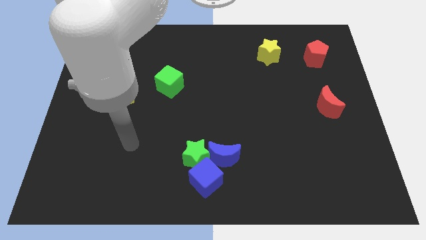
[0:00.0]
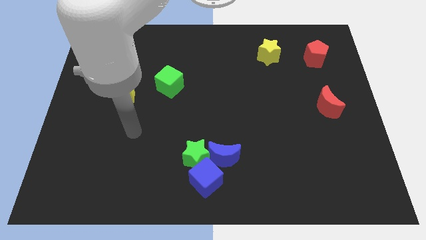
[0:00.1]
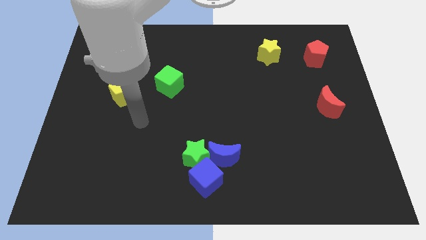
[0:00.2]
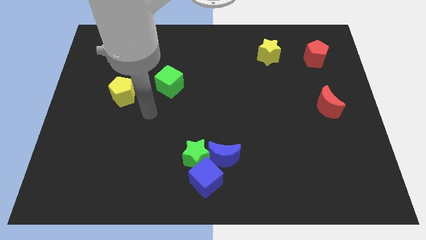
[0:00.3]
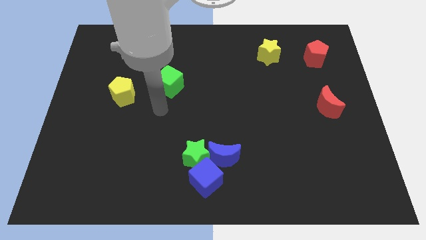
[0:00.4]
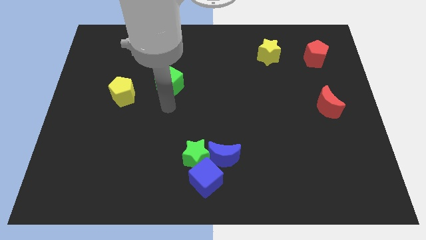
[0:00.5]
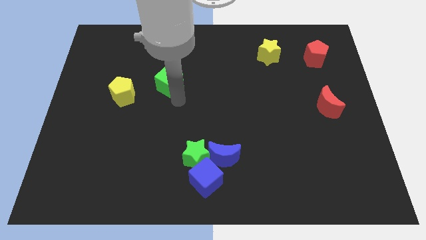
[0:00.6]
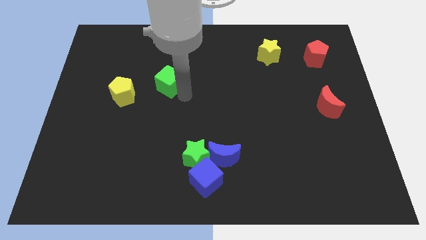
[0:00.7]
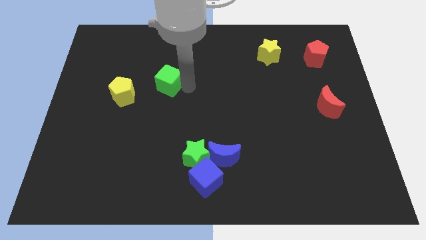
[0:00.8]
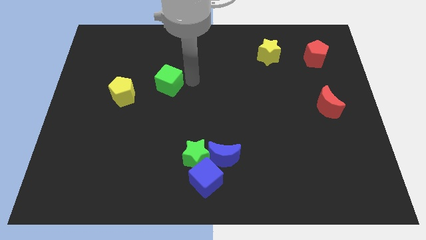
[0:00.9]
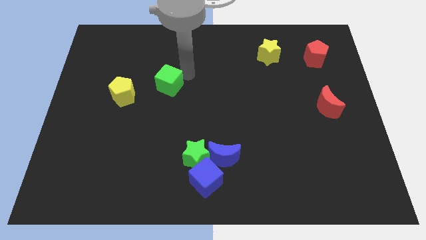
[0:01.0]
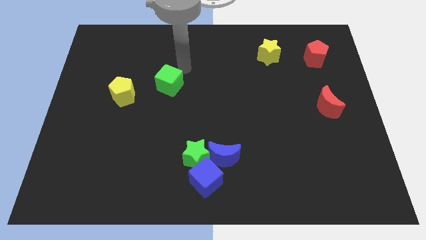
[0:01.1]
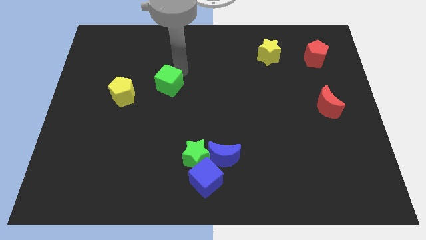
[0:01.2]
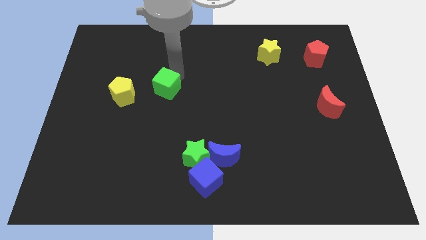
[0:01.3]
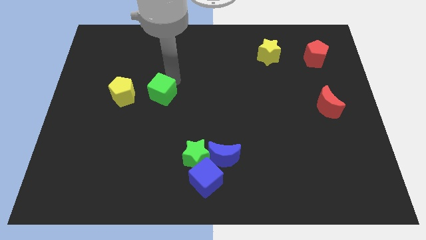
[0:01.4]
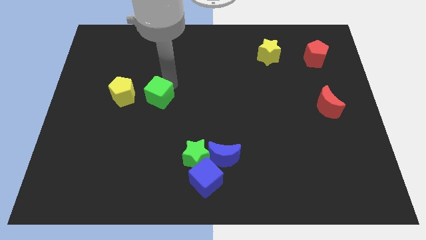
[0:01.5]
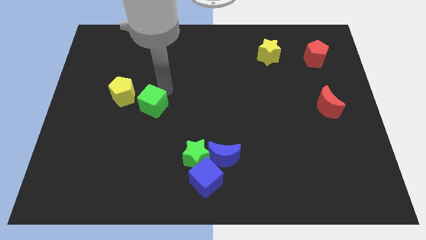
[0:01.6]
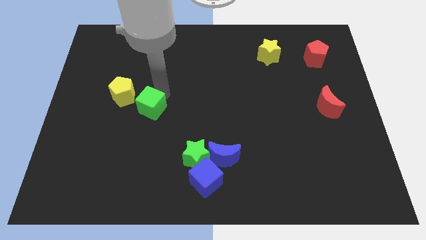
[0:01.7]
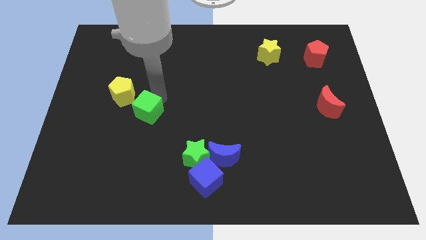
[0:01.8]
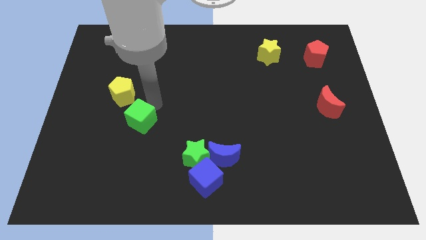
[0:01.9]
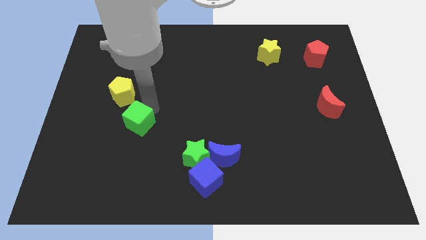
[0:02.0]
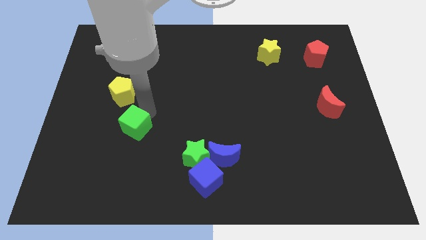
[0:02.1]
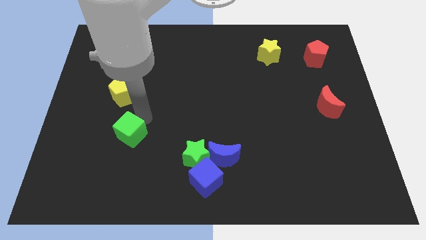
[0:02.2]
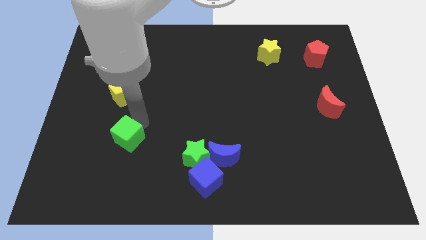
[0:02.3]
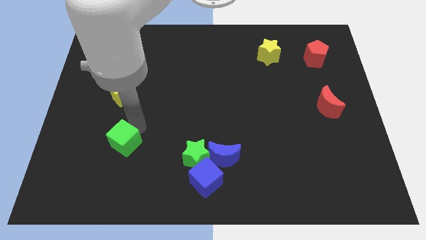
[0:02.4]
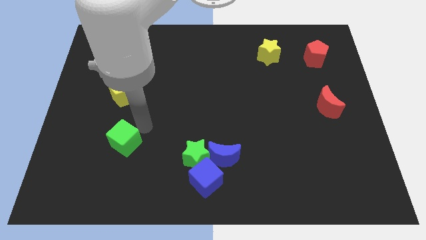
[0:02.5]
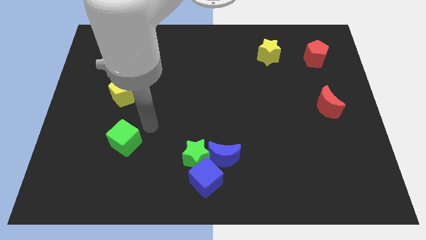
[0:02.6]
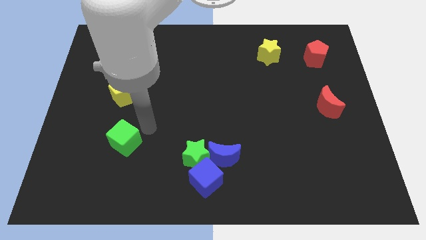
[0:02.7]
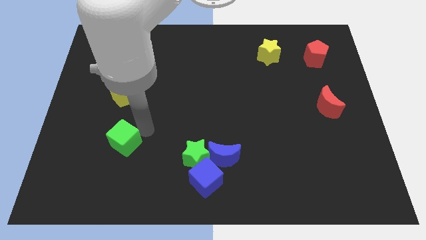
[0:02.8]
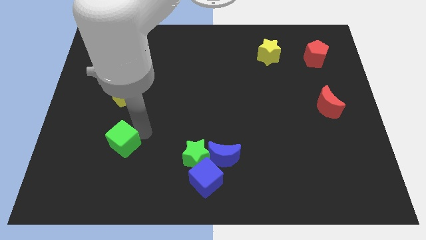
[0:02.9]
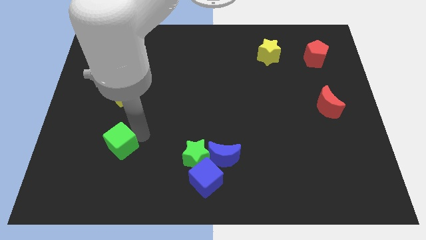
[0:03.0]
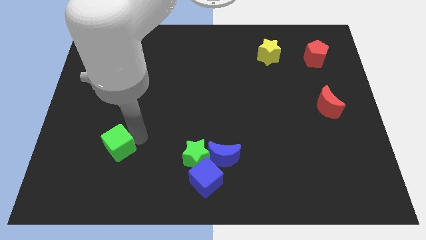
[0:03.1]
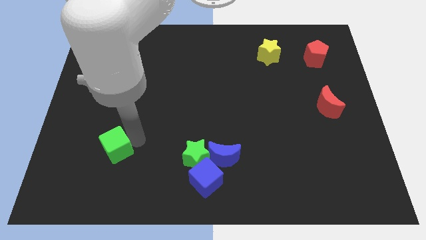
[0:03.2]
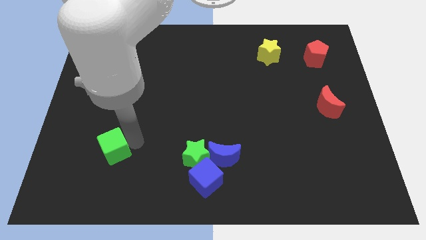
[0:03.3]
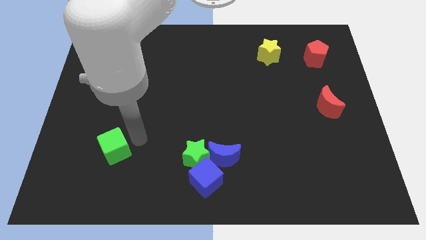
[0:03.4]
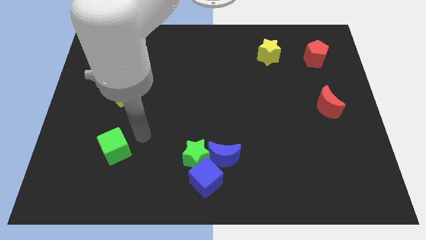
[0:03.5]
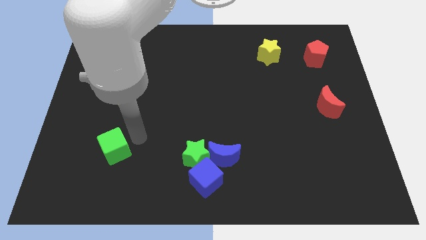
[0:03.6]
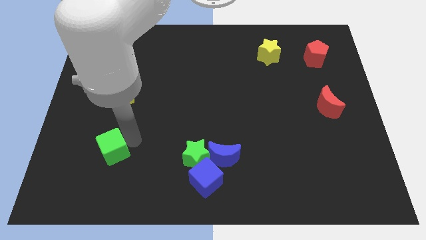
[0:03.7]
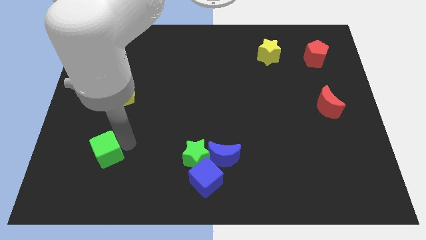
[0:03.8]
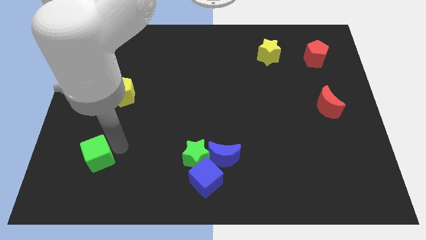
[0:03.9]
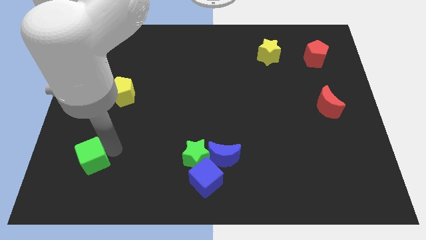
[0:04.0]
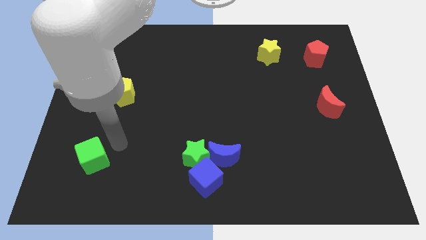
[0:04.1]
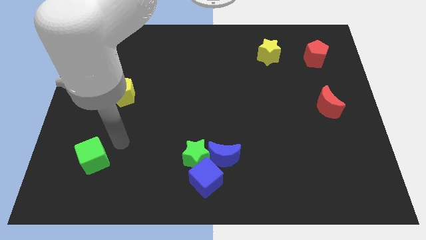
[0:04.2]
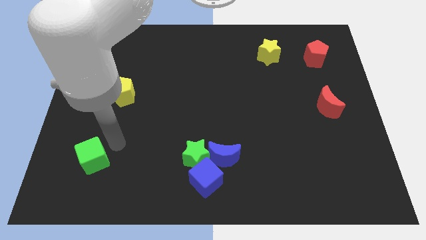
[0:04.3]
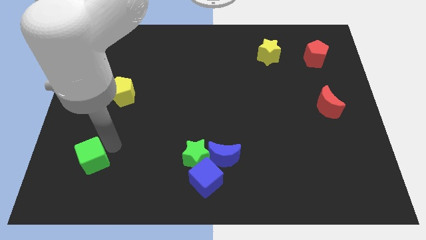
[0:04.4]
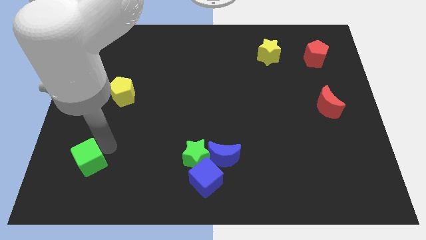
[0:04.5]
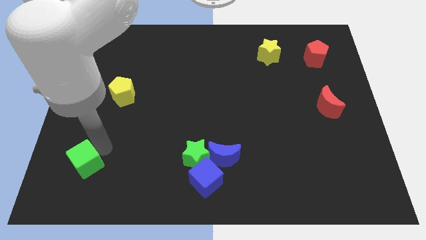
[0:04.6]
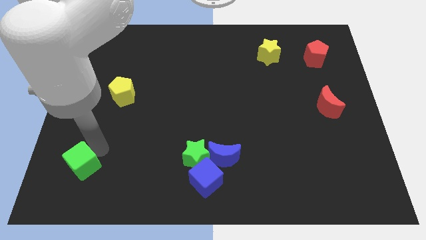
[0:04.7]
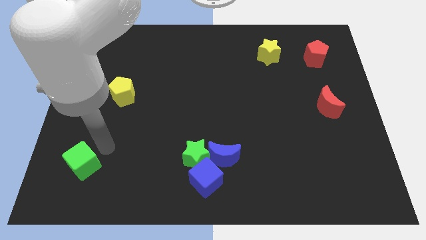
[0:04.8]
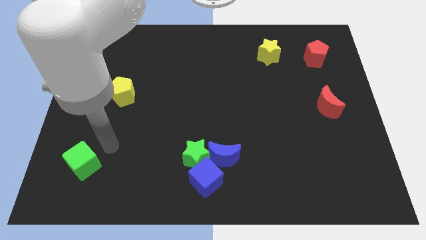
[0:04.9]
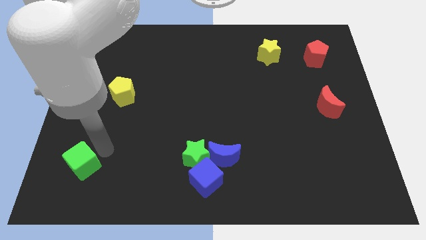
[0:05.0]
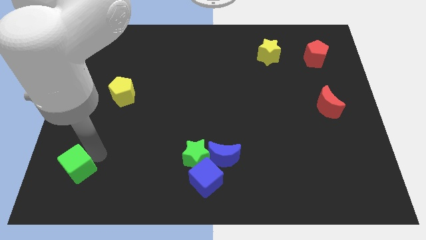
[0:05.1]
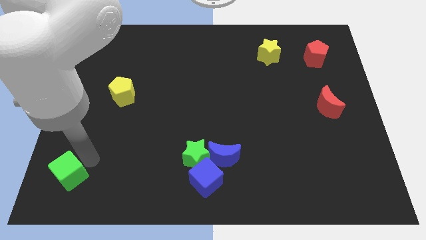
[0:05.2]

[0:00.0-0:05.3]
move the green cube to the bottom left corner

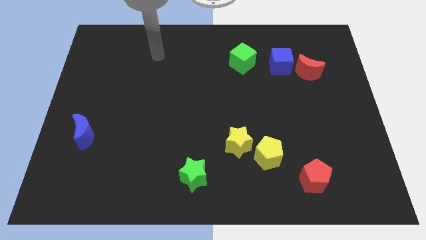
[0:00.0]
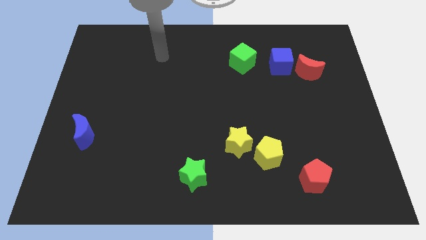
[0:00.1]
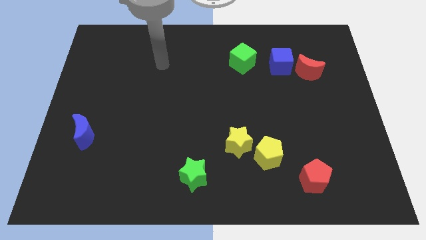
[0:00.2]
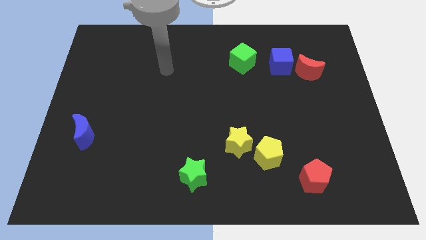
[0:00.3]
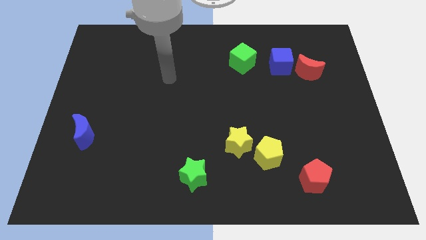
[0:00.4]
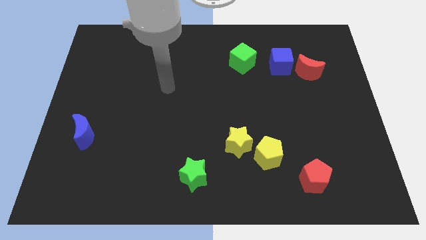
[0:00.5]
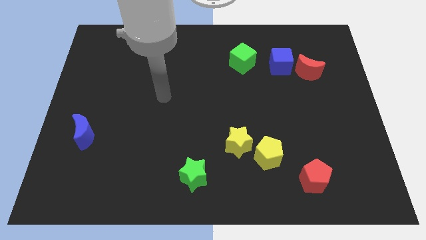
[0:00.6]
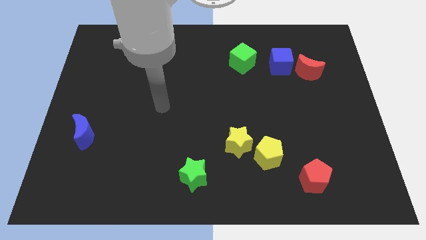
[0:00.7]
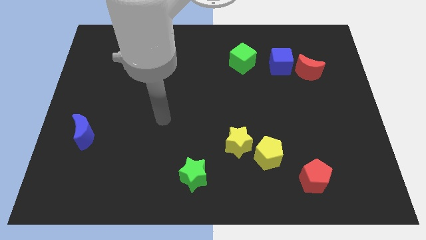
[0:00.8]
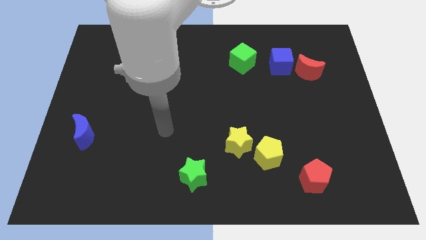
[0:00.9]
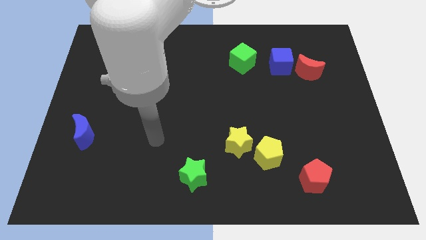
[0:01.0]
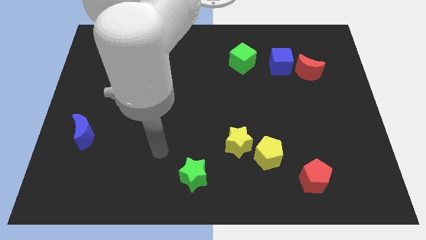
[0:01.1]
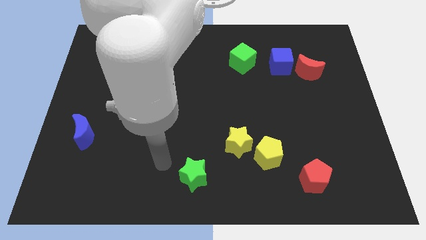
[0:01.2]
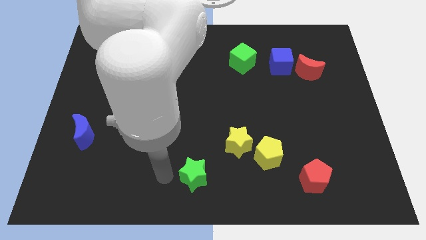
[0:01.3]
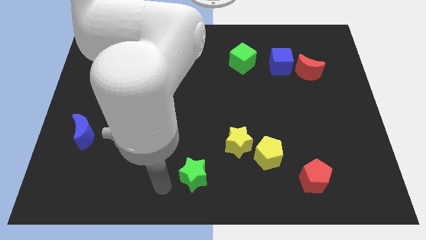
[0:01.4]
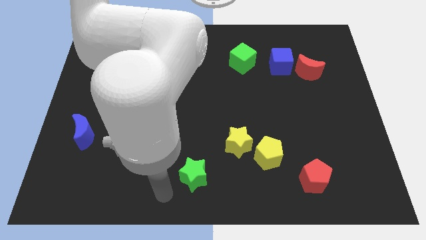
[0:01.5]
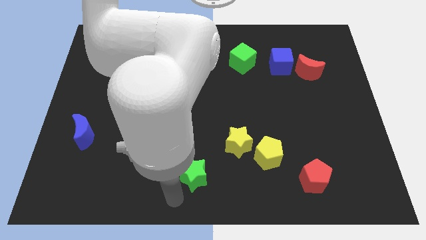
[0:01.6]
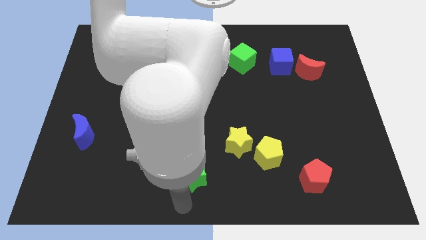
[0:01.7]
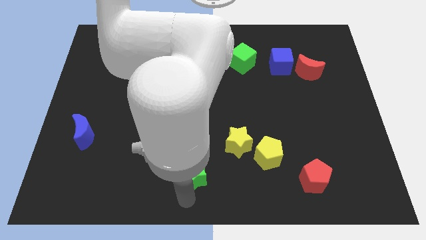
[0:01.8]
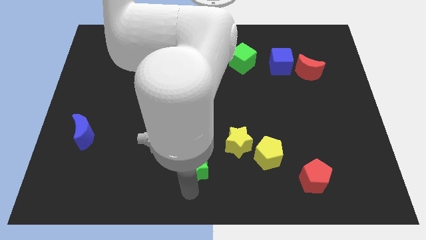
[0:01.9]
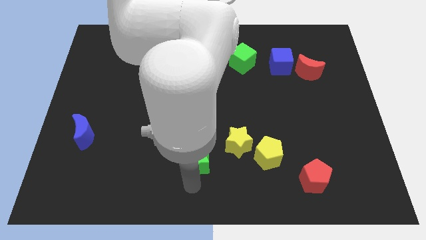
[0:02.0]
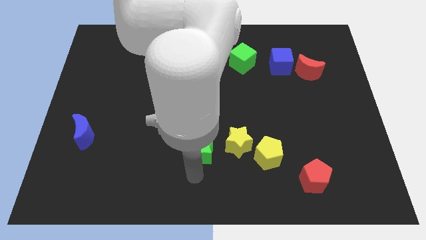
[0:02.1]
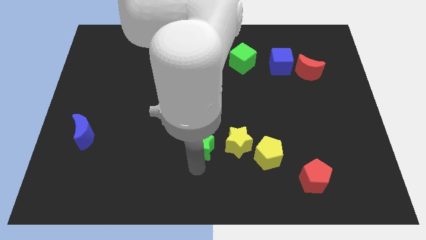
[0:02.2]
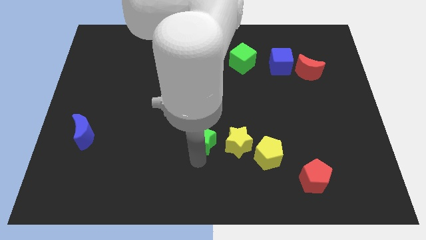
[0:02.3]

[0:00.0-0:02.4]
push the green star to the middle
